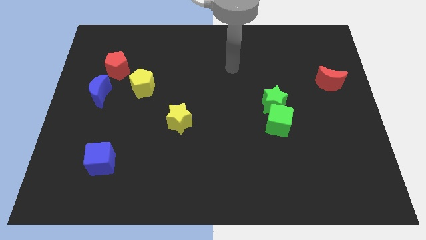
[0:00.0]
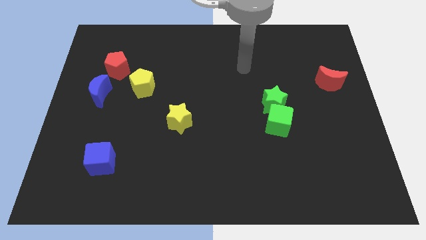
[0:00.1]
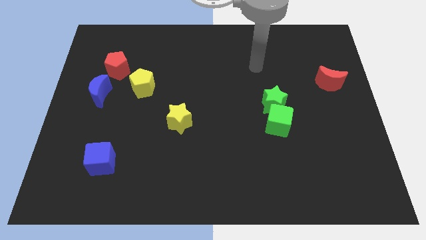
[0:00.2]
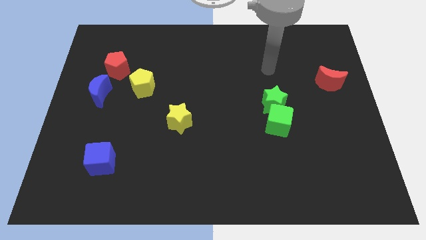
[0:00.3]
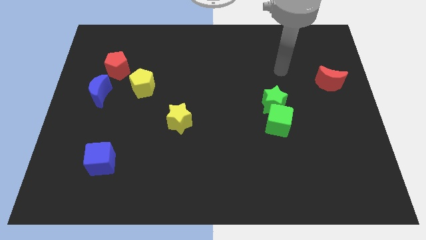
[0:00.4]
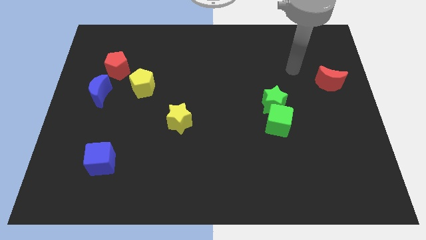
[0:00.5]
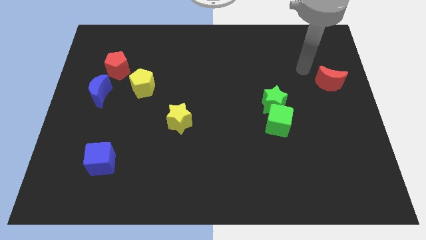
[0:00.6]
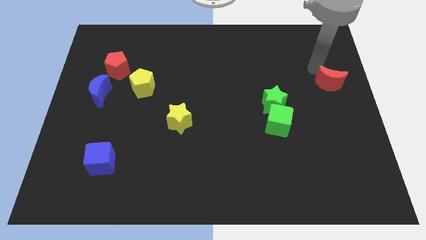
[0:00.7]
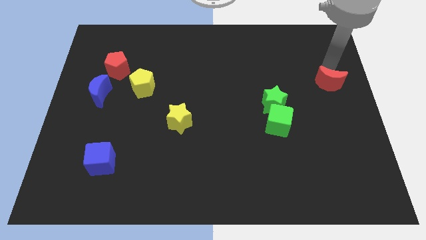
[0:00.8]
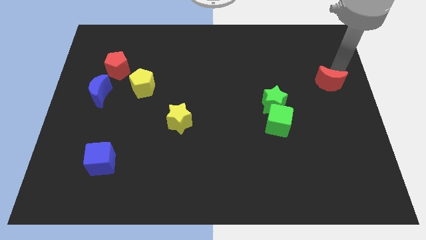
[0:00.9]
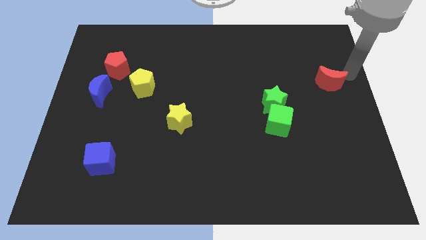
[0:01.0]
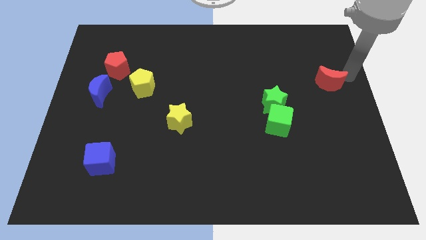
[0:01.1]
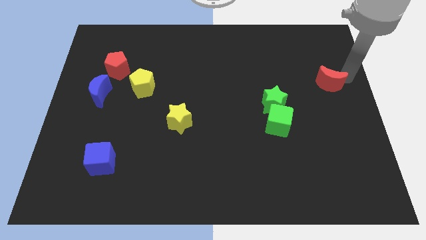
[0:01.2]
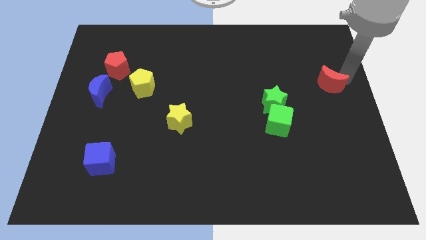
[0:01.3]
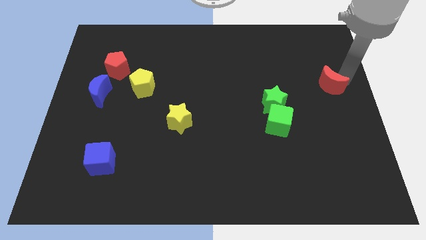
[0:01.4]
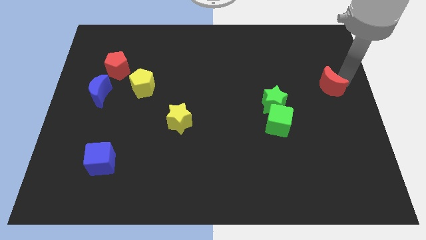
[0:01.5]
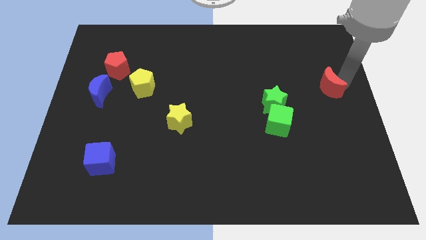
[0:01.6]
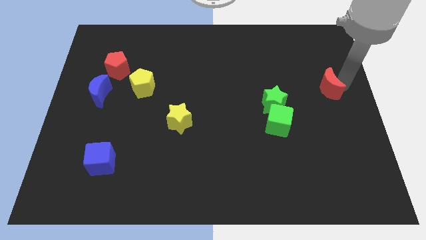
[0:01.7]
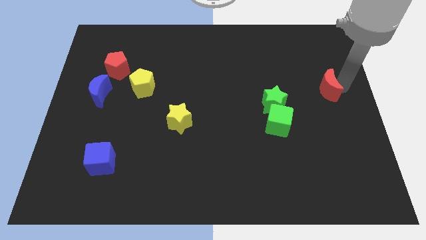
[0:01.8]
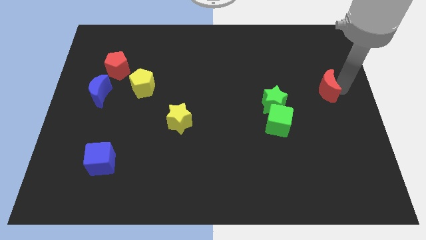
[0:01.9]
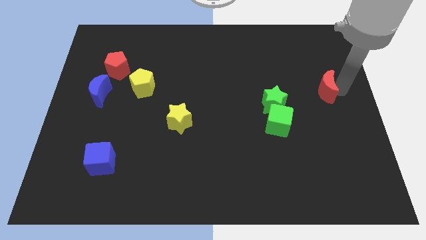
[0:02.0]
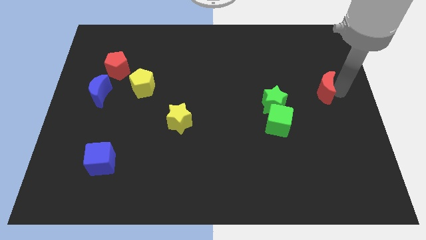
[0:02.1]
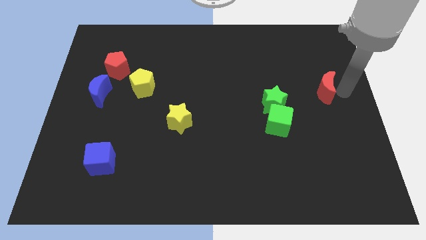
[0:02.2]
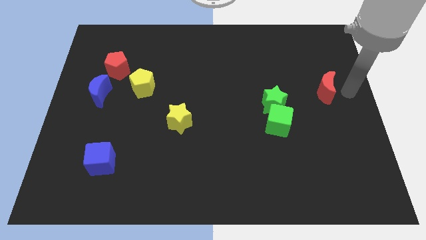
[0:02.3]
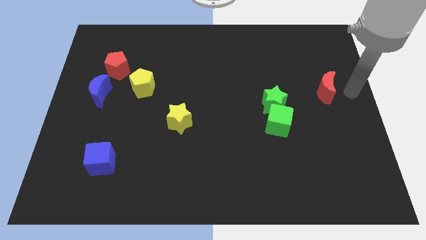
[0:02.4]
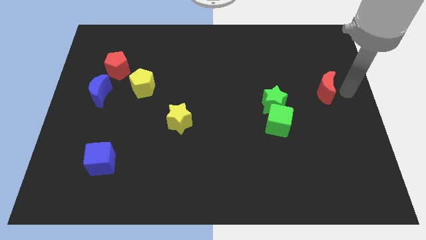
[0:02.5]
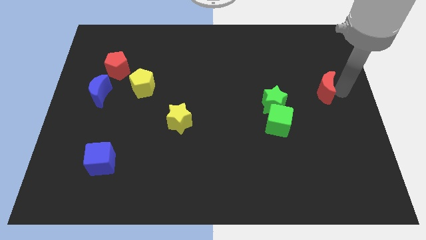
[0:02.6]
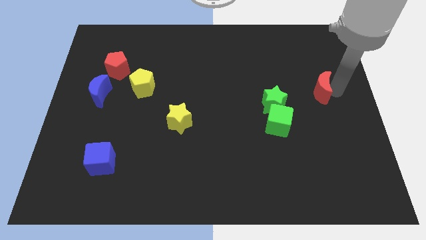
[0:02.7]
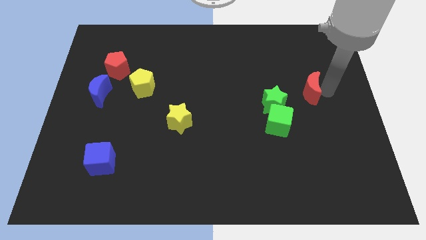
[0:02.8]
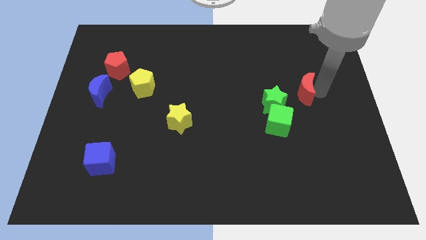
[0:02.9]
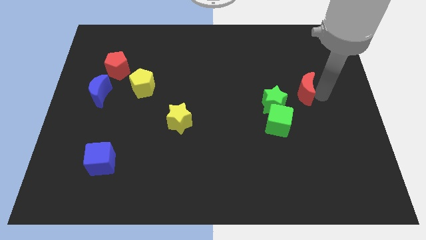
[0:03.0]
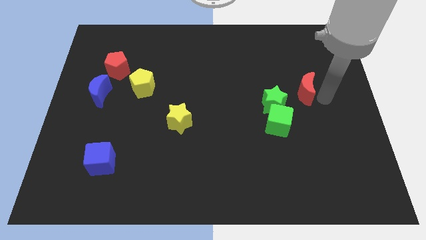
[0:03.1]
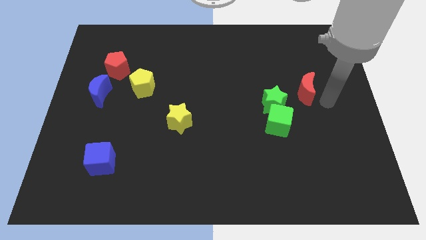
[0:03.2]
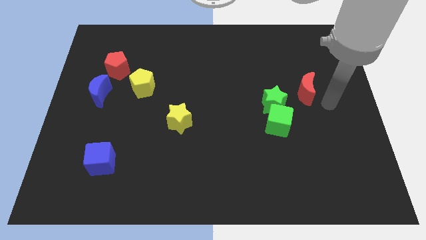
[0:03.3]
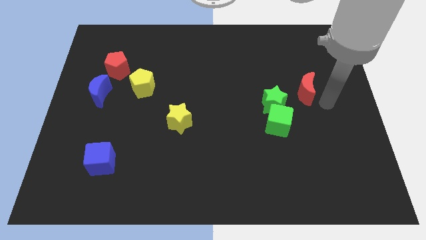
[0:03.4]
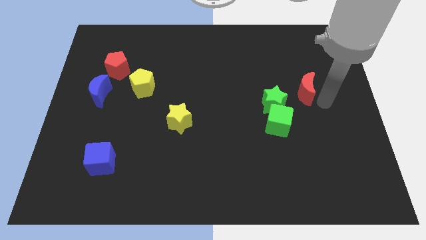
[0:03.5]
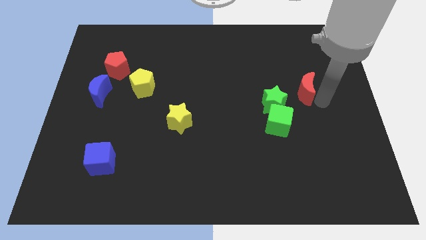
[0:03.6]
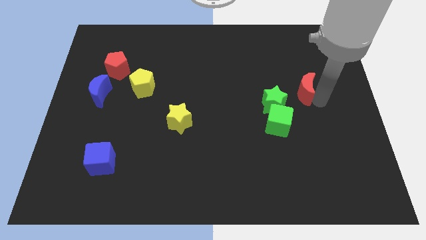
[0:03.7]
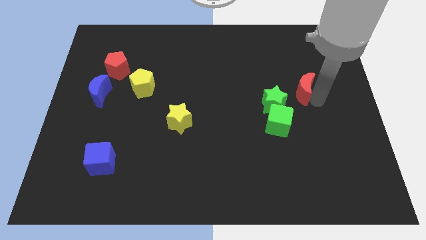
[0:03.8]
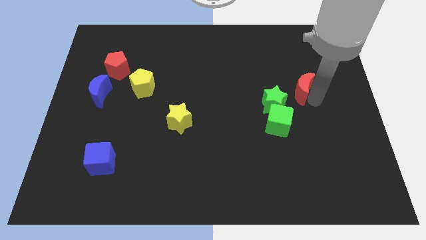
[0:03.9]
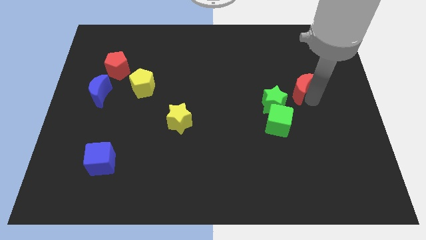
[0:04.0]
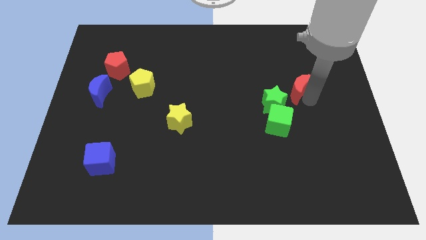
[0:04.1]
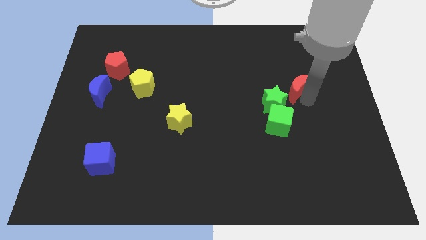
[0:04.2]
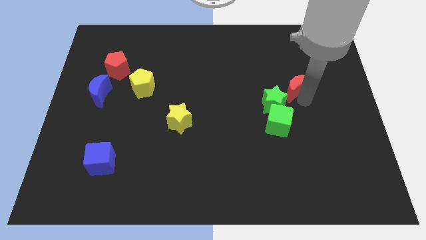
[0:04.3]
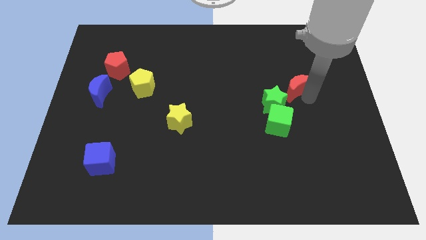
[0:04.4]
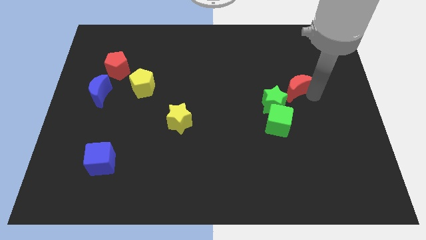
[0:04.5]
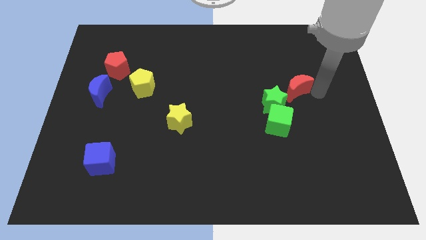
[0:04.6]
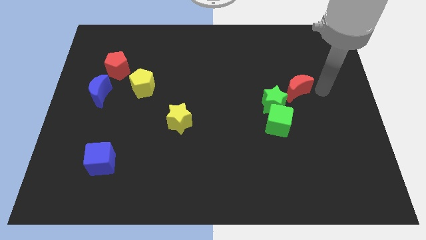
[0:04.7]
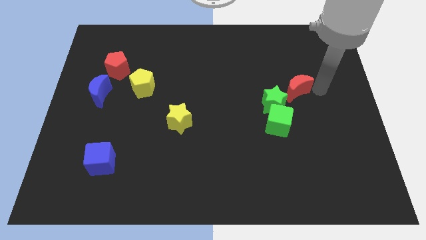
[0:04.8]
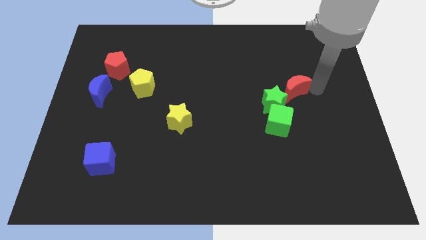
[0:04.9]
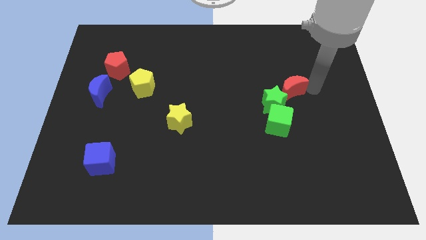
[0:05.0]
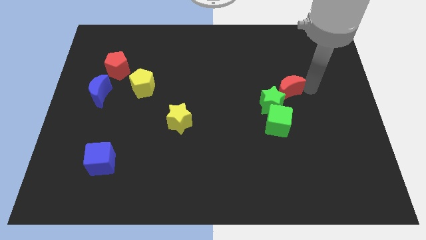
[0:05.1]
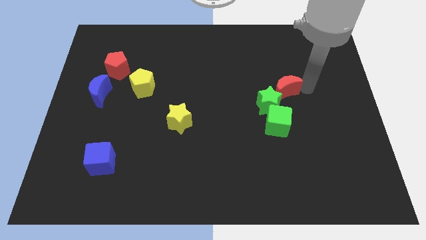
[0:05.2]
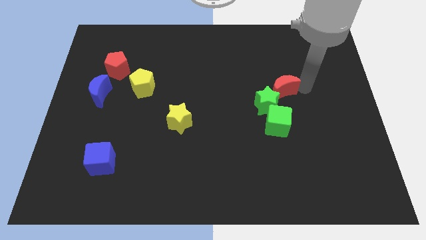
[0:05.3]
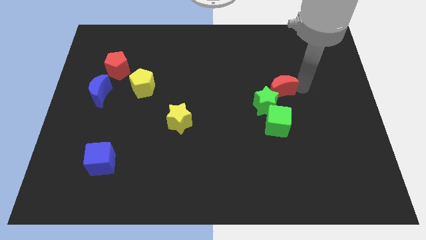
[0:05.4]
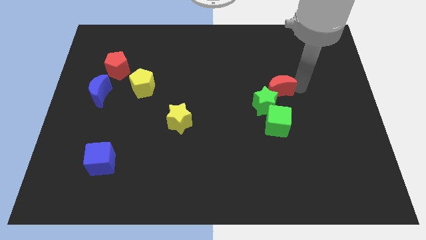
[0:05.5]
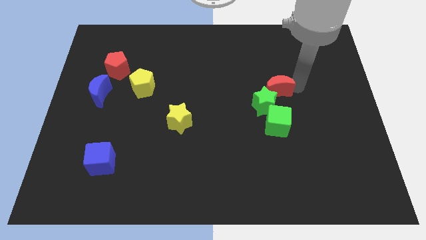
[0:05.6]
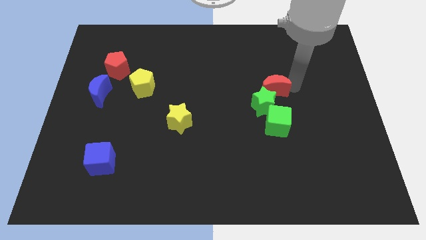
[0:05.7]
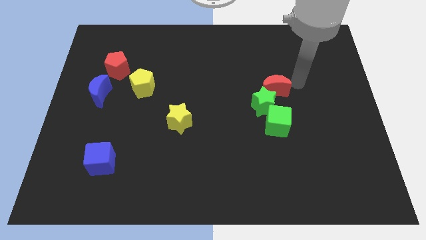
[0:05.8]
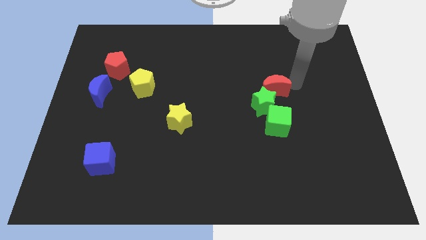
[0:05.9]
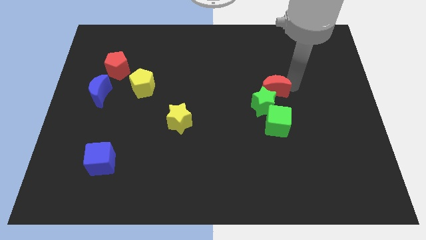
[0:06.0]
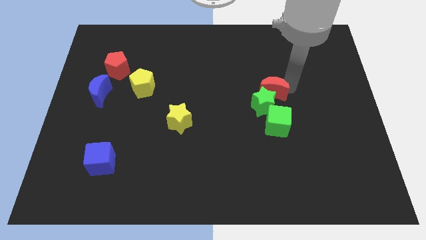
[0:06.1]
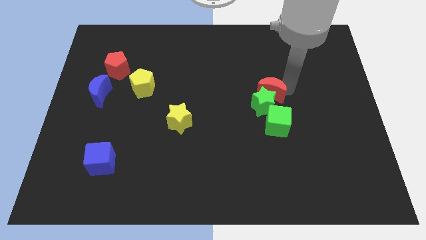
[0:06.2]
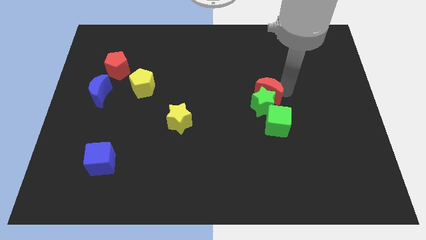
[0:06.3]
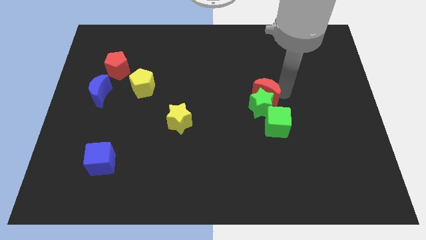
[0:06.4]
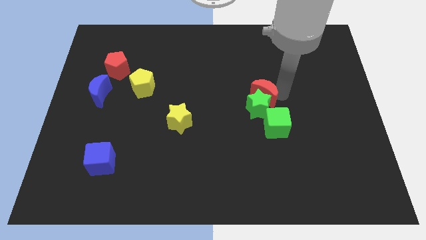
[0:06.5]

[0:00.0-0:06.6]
move the red moon to the middle

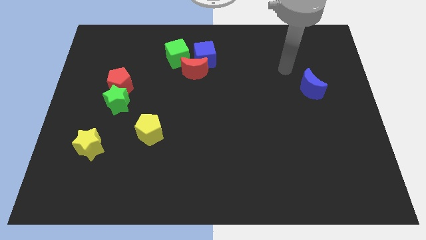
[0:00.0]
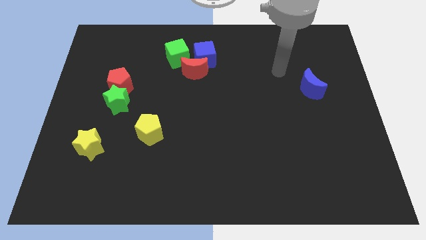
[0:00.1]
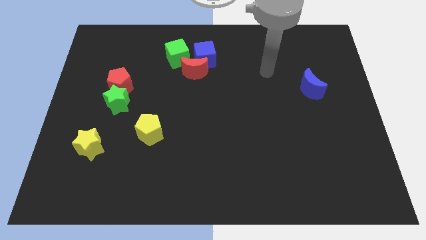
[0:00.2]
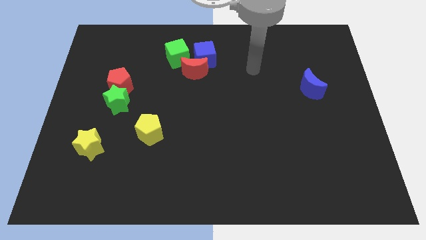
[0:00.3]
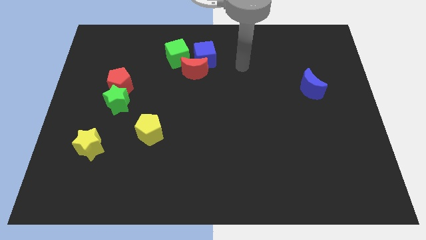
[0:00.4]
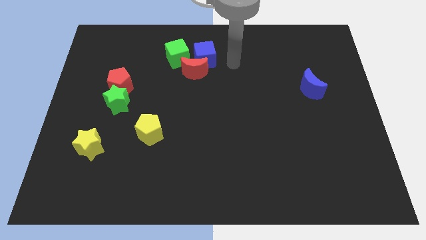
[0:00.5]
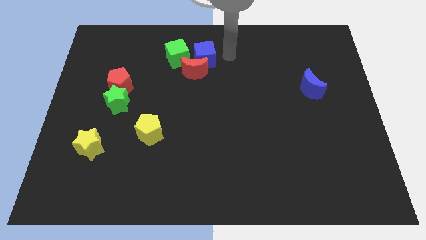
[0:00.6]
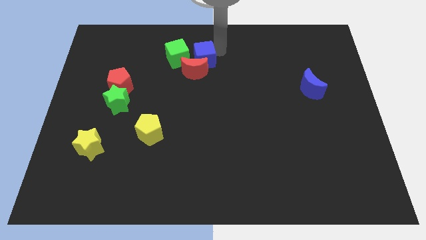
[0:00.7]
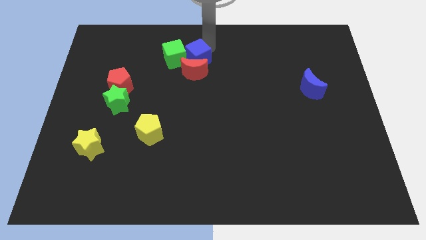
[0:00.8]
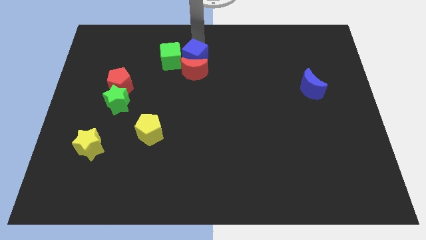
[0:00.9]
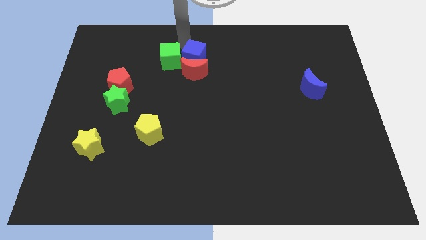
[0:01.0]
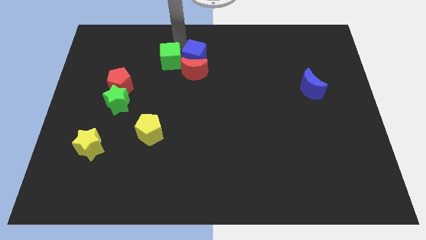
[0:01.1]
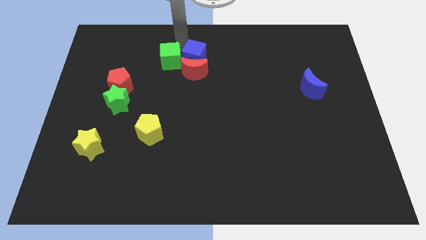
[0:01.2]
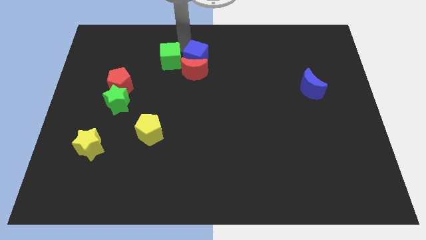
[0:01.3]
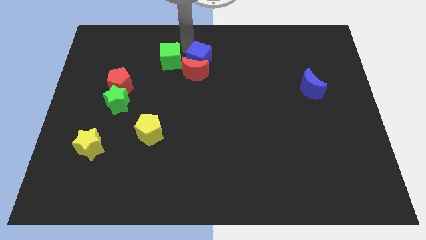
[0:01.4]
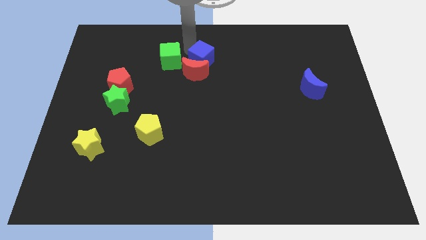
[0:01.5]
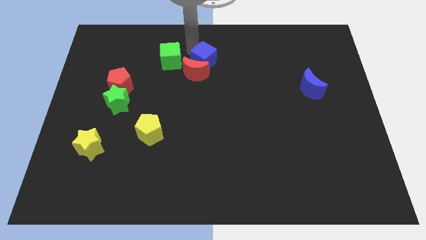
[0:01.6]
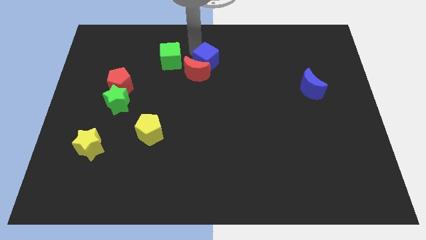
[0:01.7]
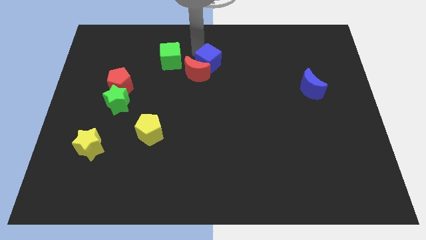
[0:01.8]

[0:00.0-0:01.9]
slide the blue cube to the middle
